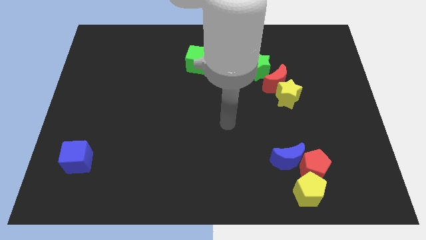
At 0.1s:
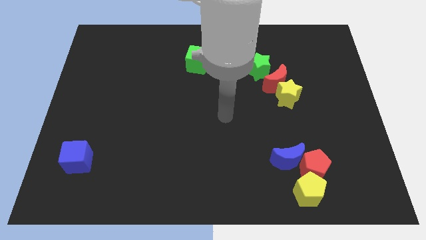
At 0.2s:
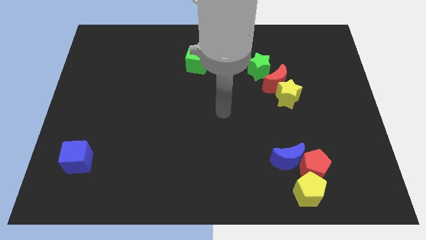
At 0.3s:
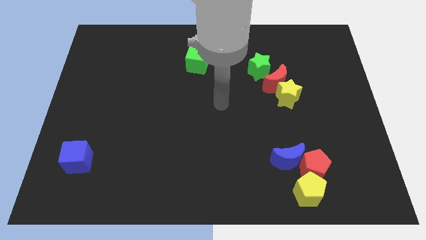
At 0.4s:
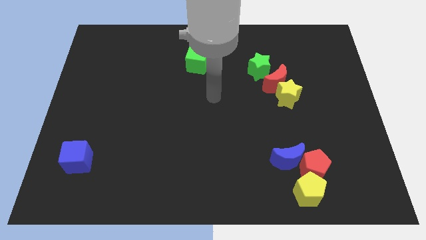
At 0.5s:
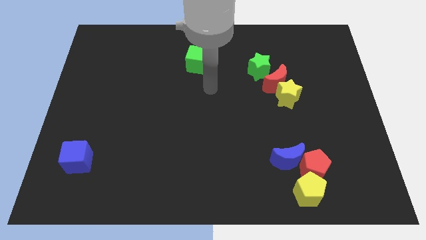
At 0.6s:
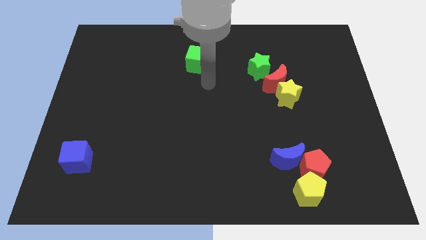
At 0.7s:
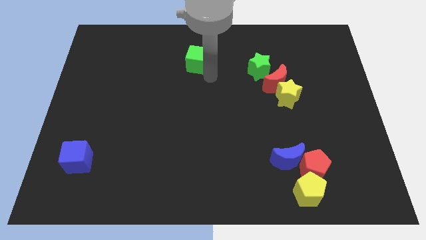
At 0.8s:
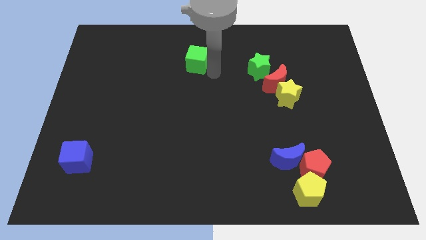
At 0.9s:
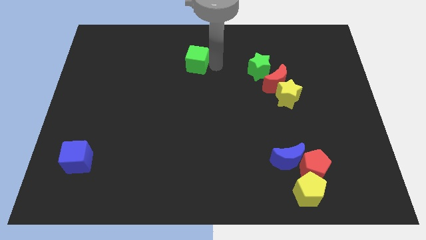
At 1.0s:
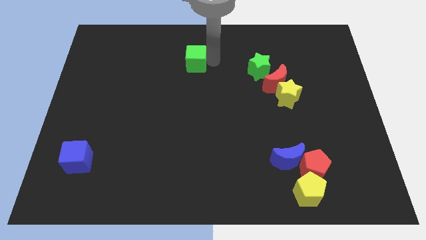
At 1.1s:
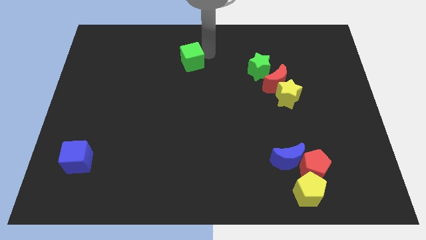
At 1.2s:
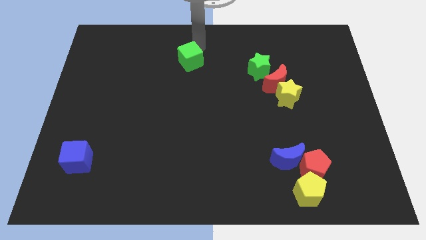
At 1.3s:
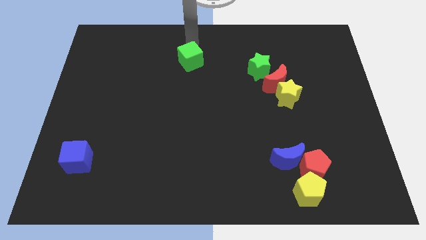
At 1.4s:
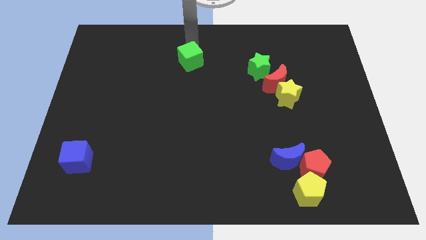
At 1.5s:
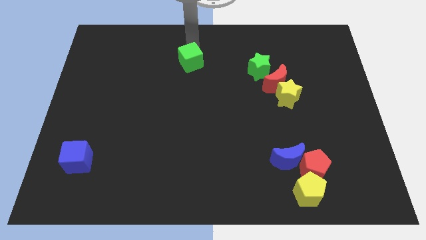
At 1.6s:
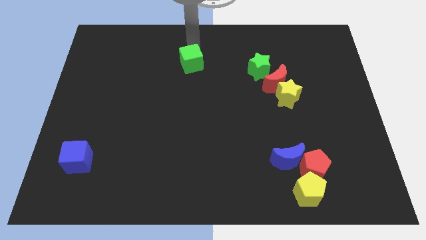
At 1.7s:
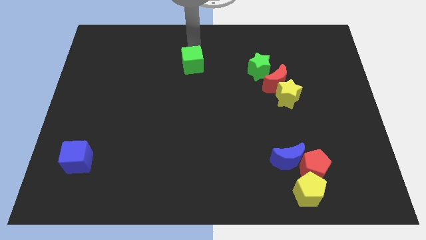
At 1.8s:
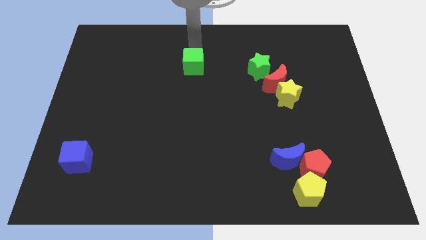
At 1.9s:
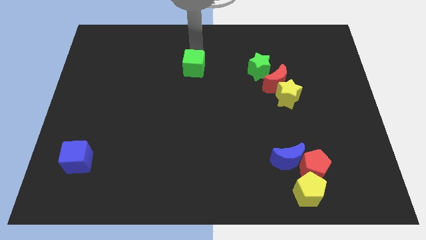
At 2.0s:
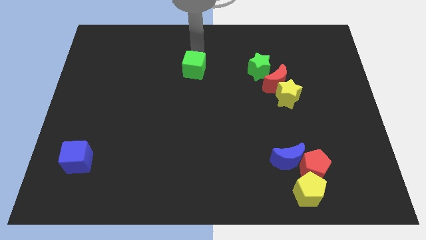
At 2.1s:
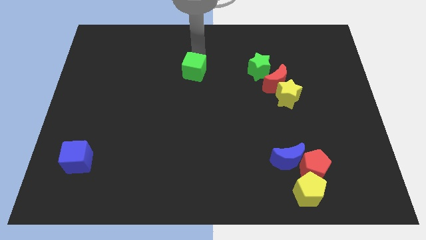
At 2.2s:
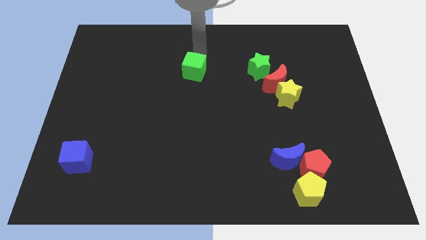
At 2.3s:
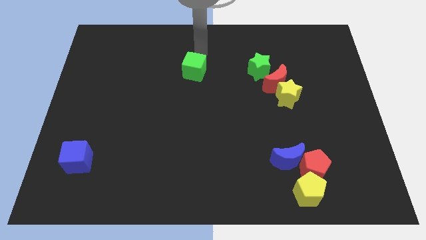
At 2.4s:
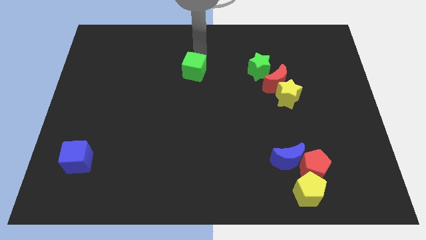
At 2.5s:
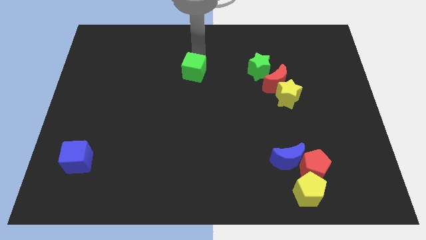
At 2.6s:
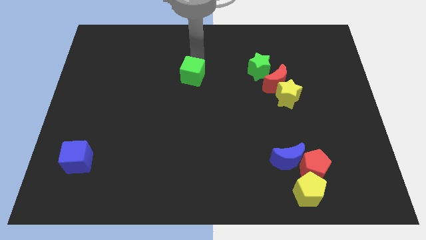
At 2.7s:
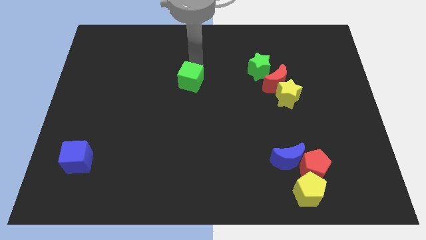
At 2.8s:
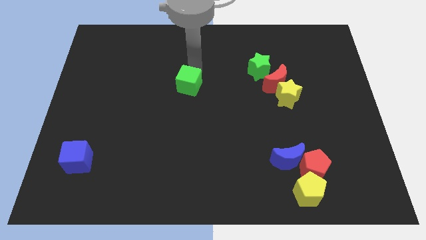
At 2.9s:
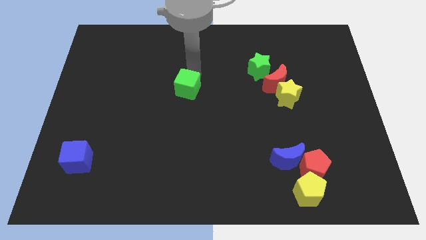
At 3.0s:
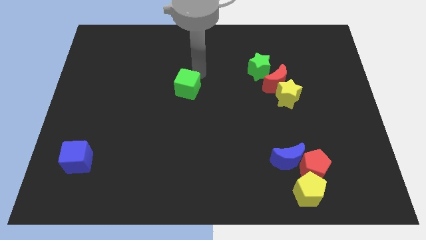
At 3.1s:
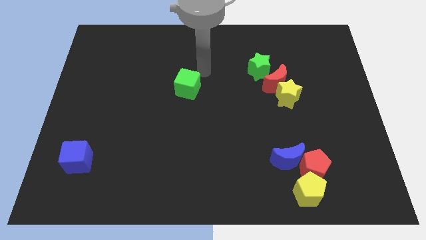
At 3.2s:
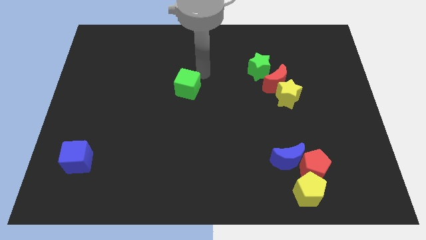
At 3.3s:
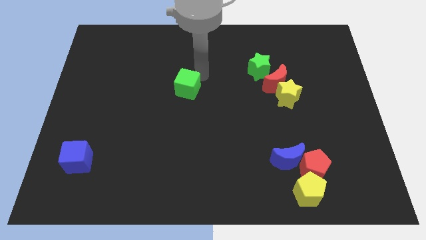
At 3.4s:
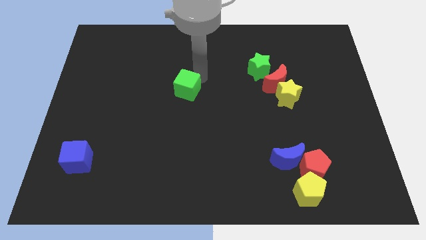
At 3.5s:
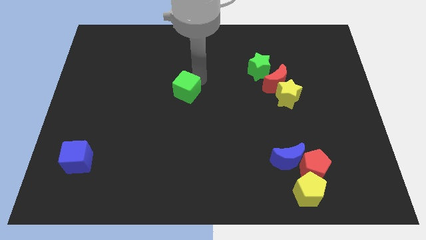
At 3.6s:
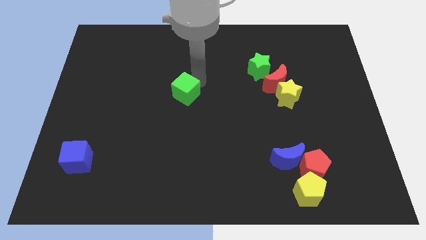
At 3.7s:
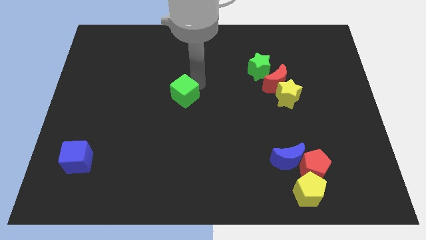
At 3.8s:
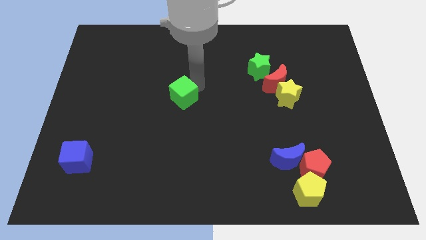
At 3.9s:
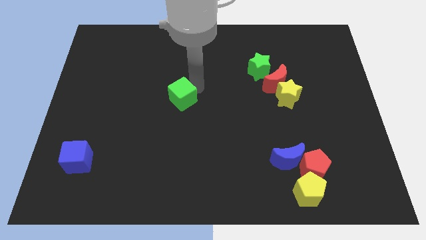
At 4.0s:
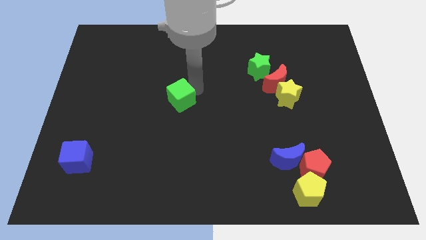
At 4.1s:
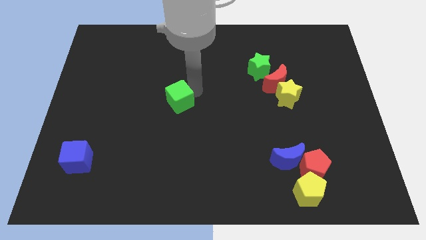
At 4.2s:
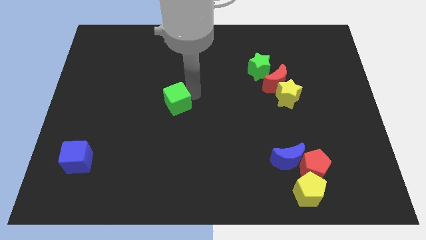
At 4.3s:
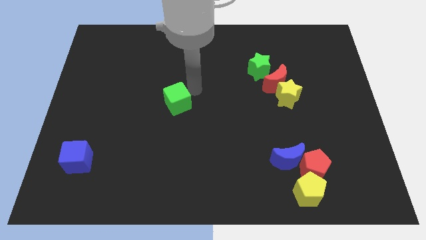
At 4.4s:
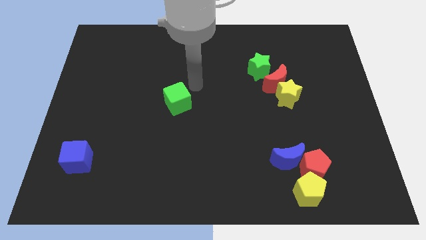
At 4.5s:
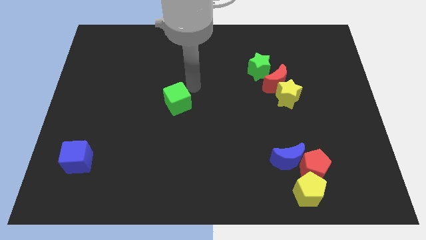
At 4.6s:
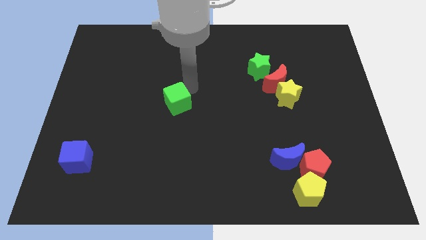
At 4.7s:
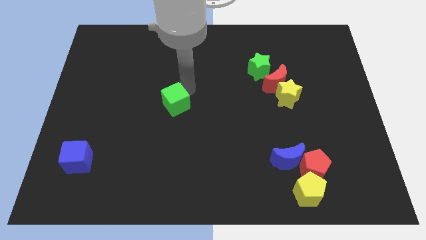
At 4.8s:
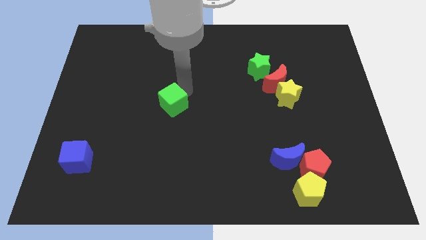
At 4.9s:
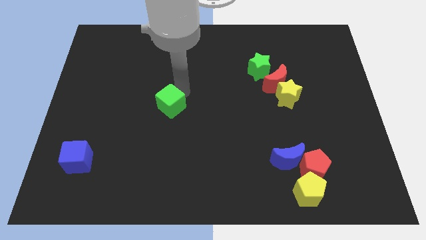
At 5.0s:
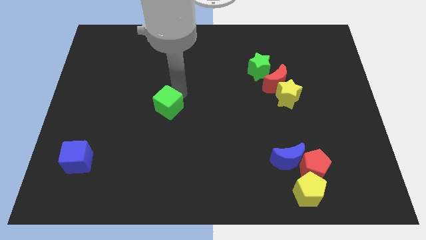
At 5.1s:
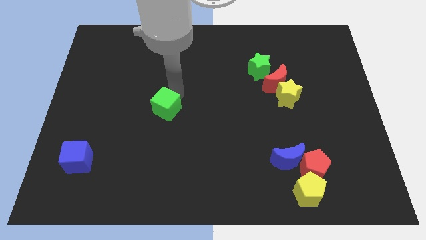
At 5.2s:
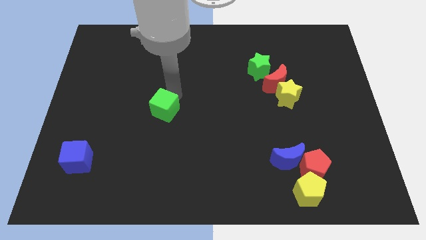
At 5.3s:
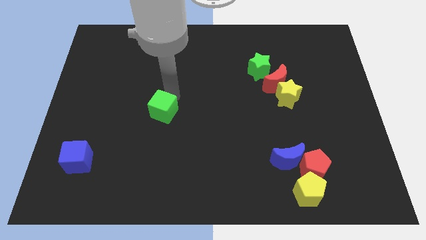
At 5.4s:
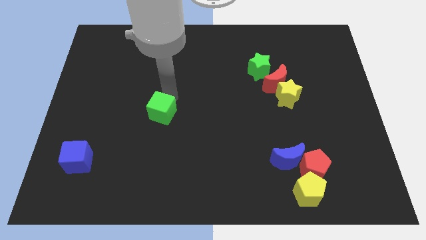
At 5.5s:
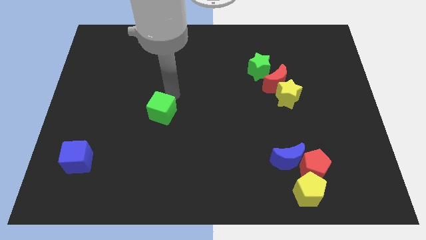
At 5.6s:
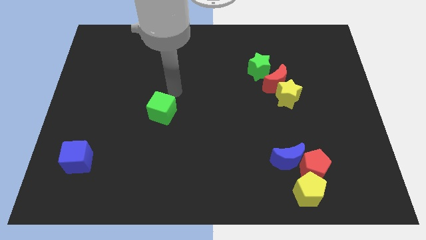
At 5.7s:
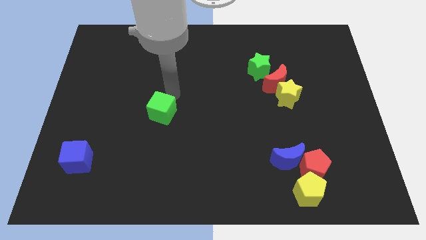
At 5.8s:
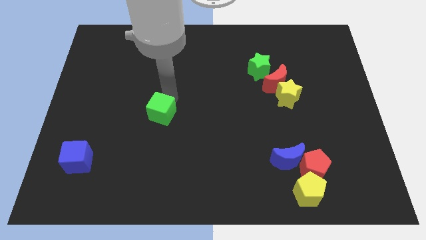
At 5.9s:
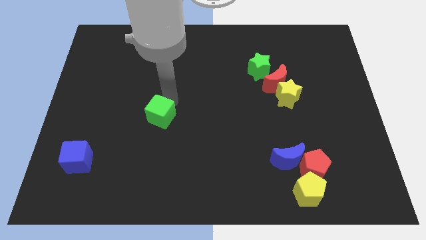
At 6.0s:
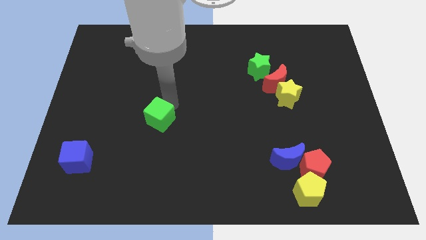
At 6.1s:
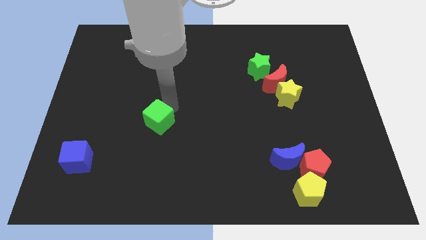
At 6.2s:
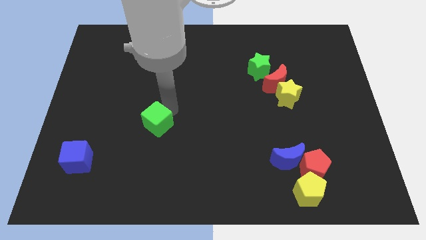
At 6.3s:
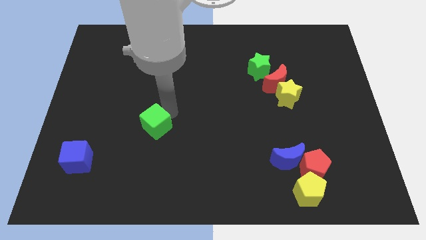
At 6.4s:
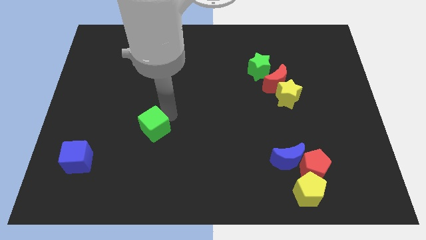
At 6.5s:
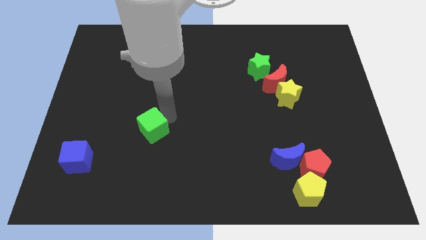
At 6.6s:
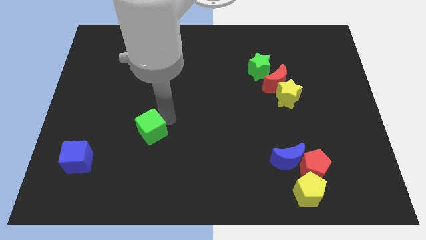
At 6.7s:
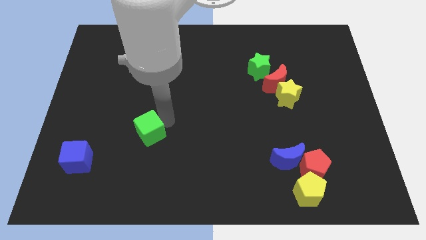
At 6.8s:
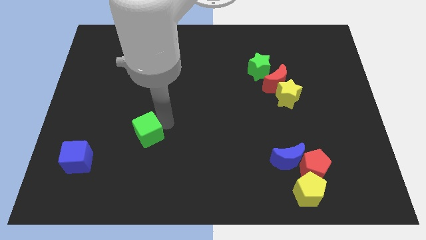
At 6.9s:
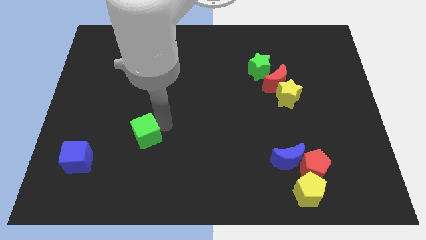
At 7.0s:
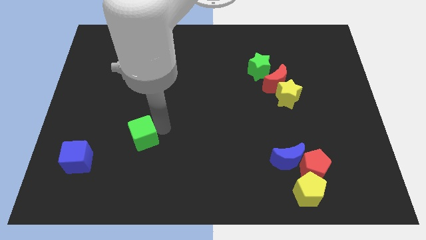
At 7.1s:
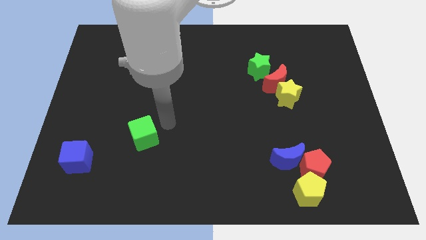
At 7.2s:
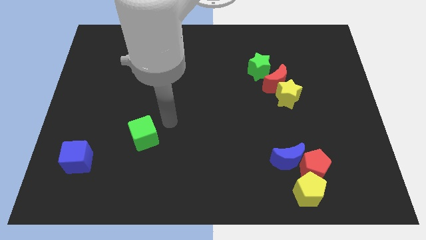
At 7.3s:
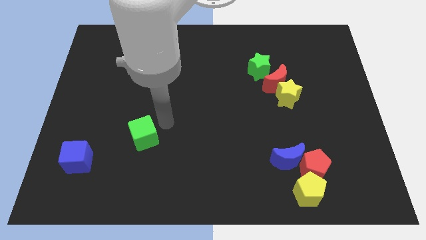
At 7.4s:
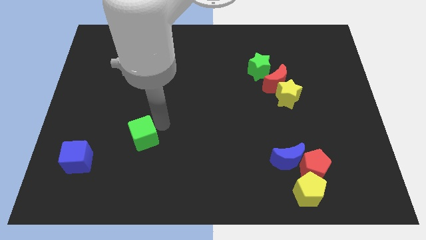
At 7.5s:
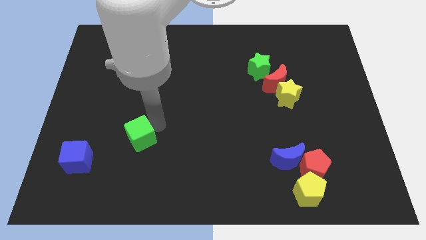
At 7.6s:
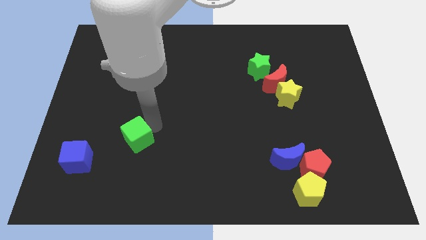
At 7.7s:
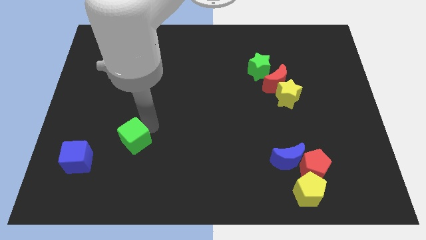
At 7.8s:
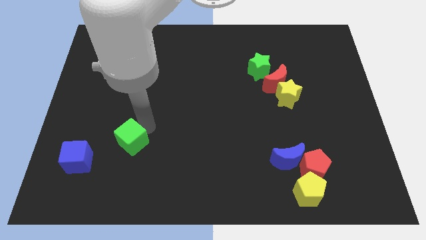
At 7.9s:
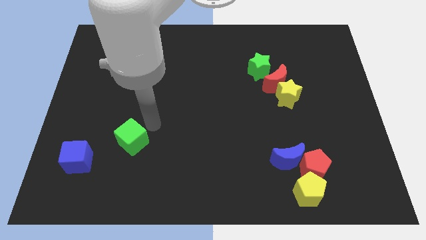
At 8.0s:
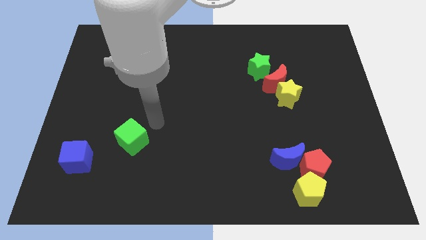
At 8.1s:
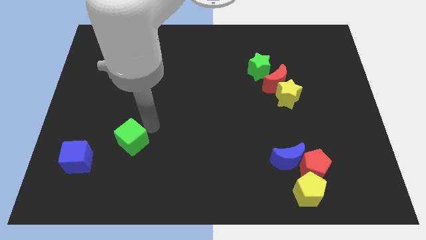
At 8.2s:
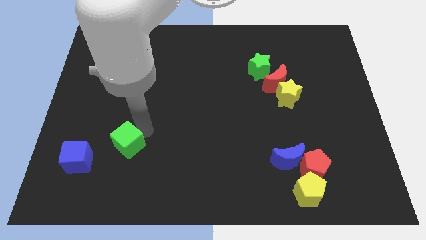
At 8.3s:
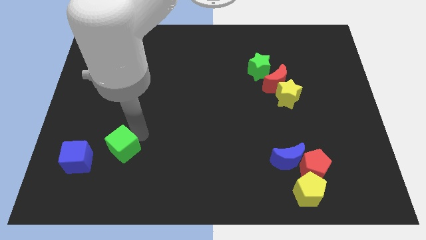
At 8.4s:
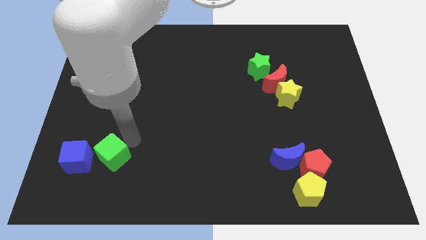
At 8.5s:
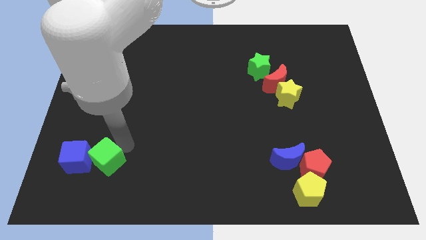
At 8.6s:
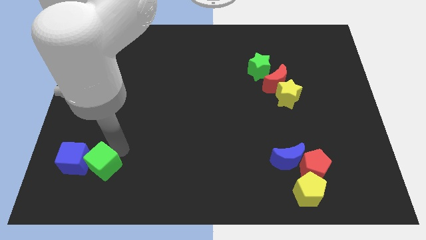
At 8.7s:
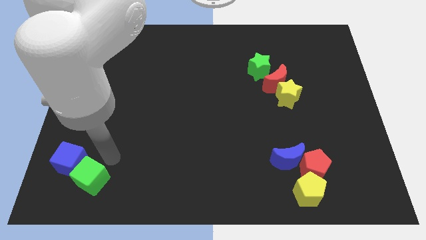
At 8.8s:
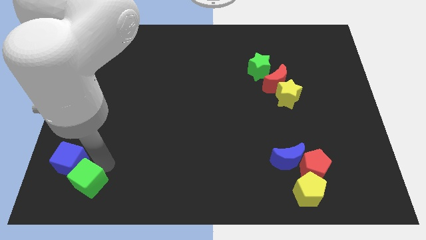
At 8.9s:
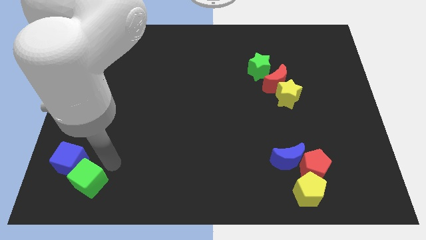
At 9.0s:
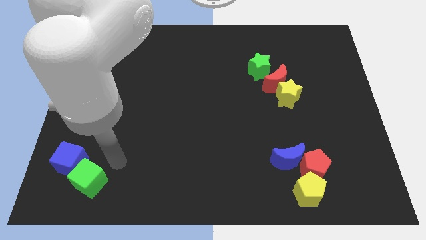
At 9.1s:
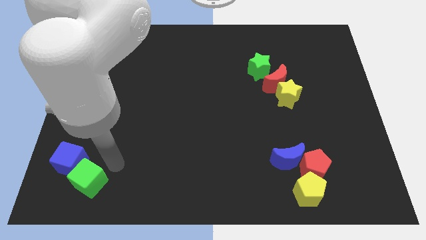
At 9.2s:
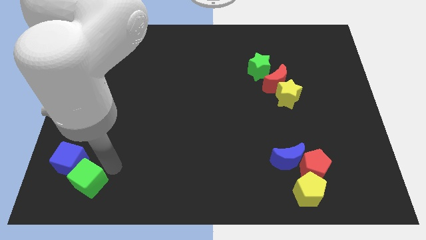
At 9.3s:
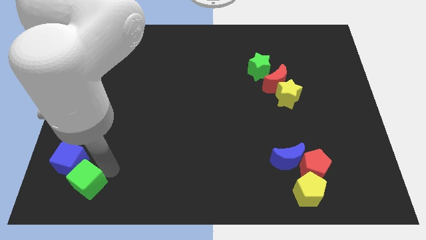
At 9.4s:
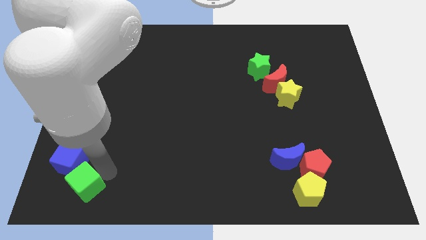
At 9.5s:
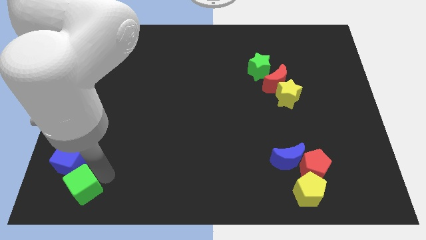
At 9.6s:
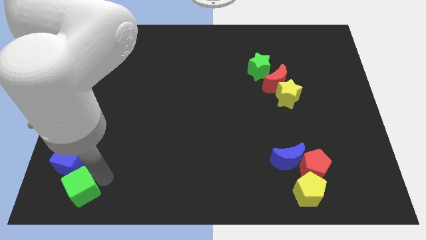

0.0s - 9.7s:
push the green cube to the bottom left
